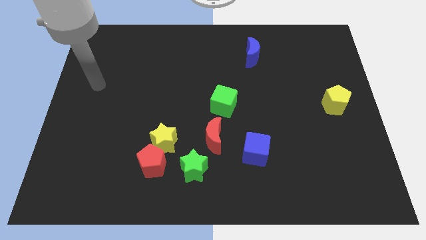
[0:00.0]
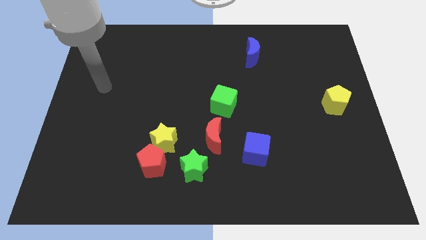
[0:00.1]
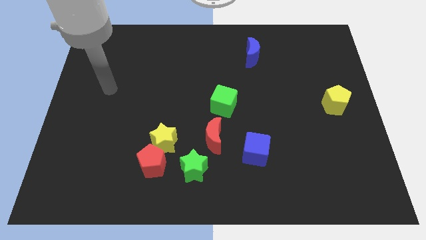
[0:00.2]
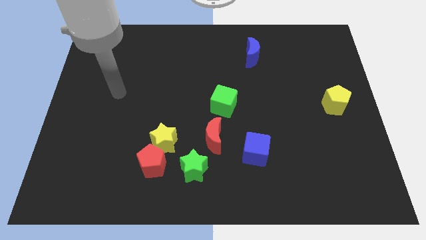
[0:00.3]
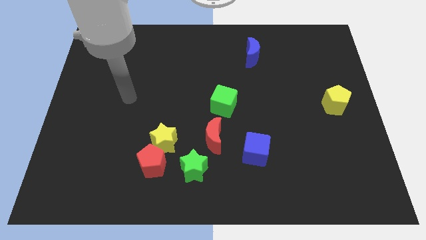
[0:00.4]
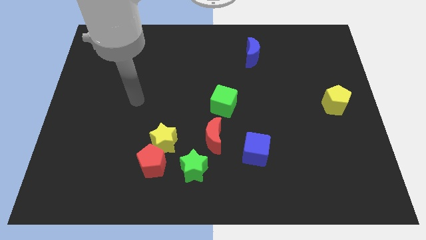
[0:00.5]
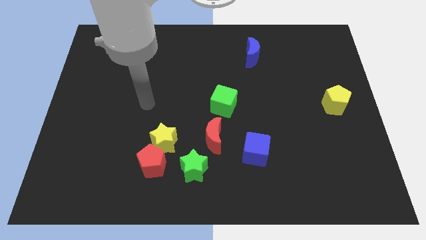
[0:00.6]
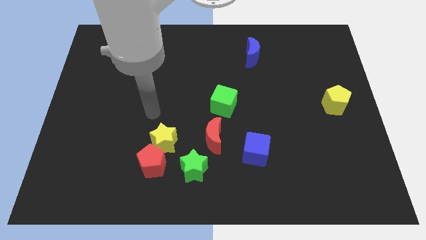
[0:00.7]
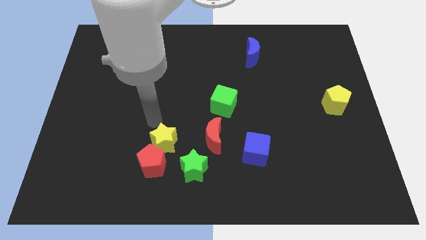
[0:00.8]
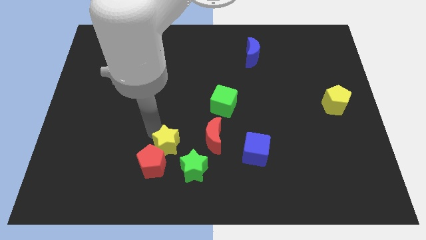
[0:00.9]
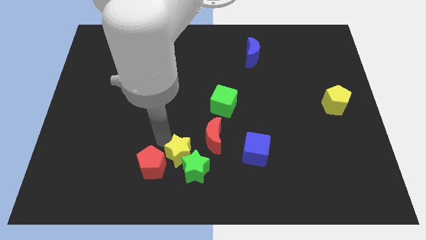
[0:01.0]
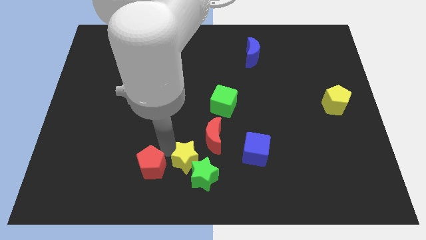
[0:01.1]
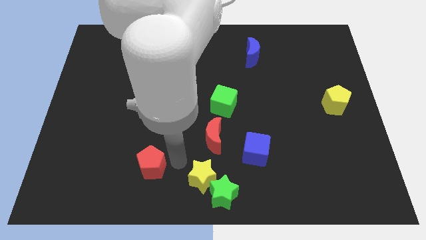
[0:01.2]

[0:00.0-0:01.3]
pull the red pentagon apart from the yellow star and green star

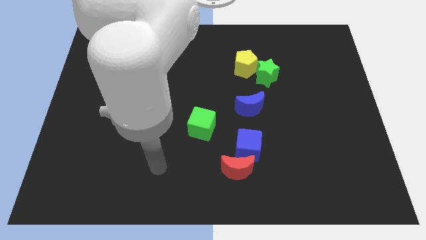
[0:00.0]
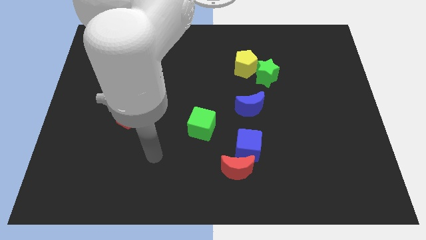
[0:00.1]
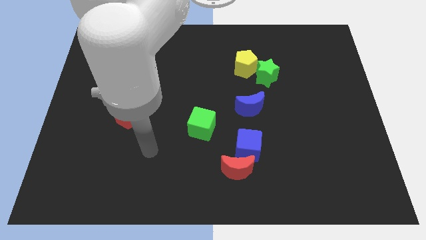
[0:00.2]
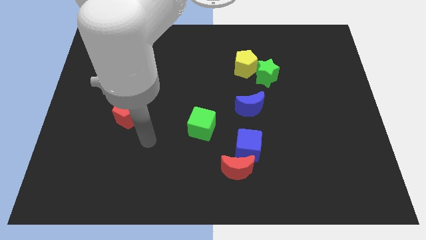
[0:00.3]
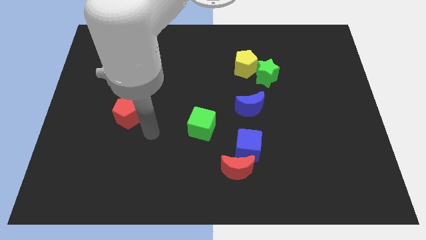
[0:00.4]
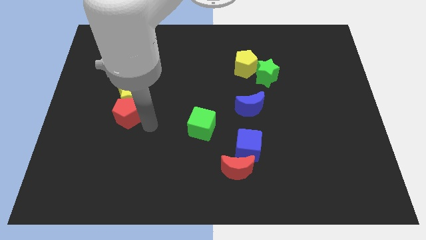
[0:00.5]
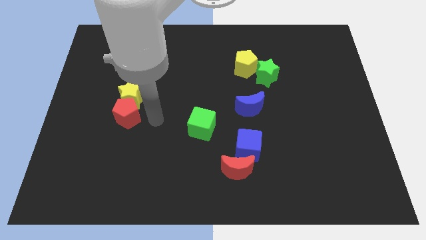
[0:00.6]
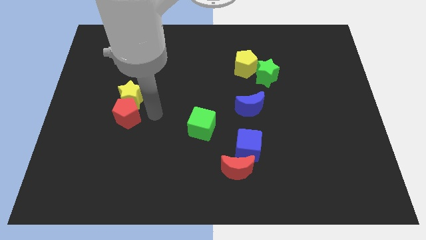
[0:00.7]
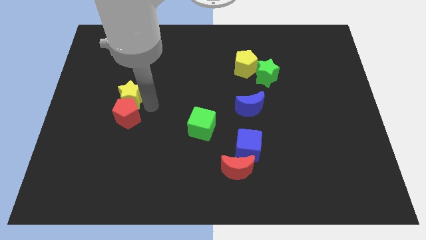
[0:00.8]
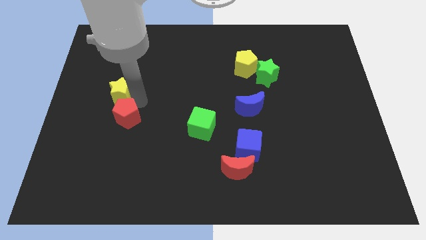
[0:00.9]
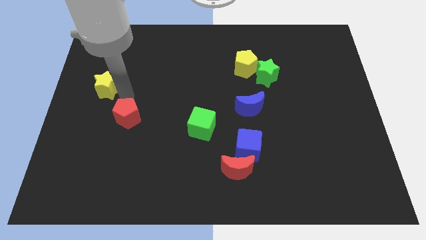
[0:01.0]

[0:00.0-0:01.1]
pull the red pentagon apart from the yellow star

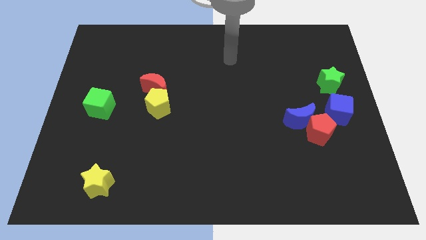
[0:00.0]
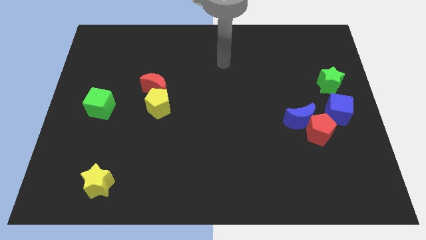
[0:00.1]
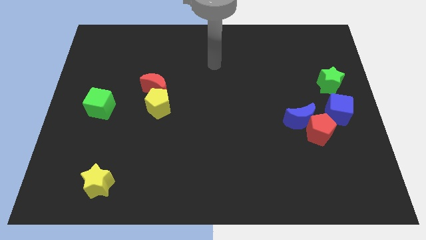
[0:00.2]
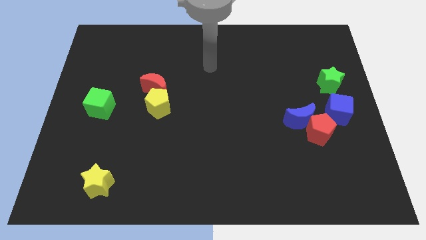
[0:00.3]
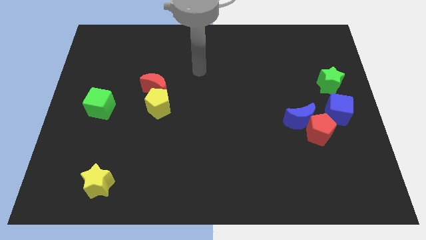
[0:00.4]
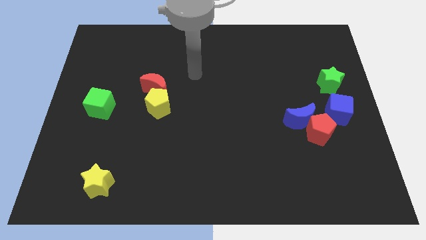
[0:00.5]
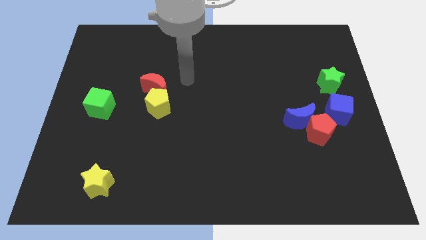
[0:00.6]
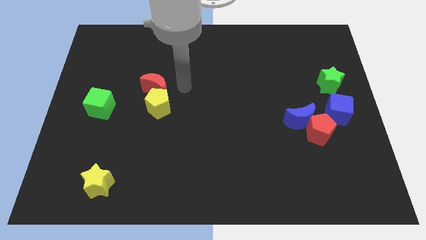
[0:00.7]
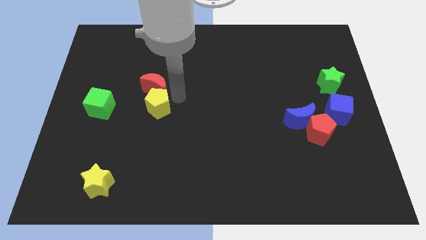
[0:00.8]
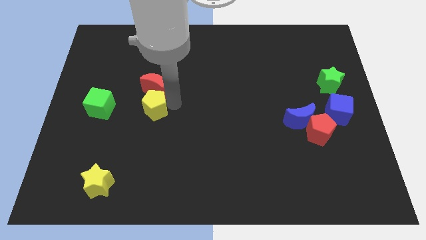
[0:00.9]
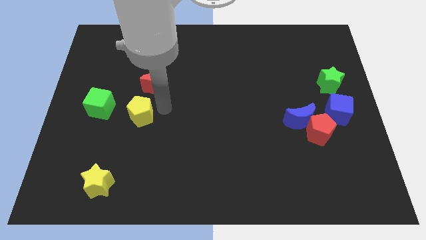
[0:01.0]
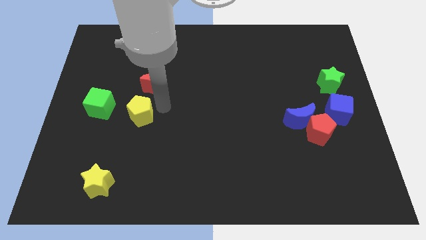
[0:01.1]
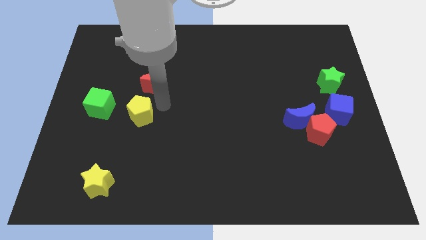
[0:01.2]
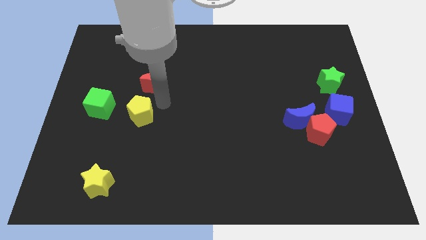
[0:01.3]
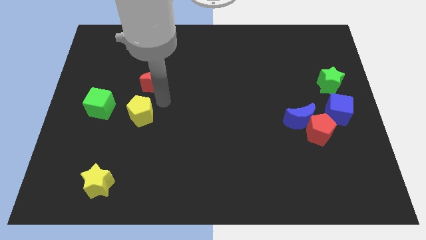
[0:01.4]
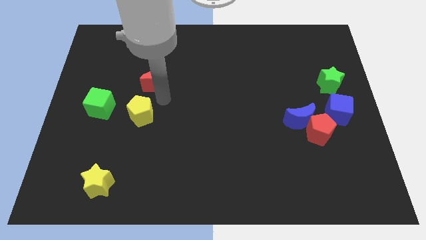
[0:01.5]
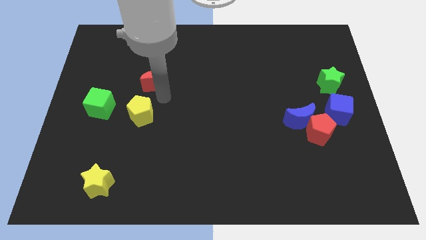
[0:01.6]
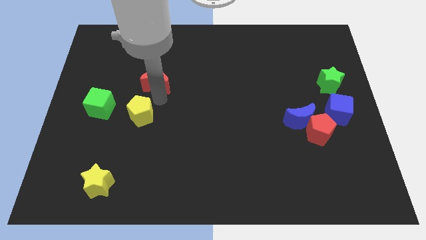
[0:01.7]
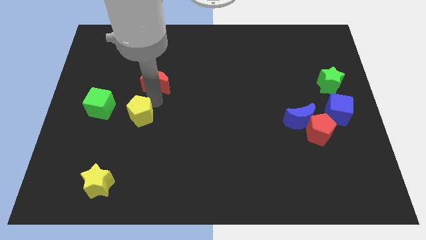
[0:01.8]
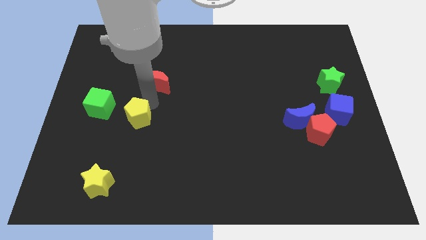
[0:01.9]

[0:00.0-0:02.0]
move the red moon away from the yellow pentagon

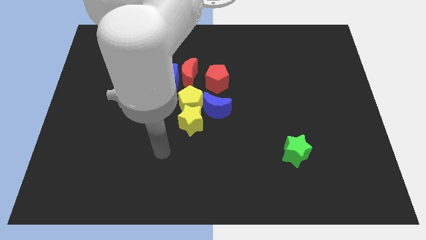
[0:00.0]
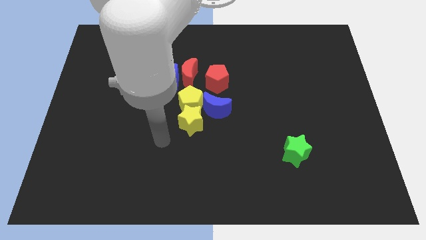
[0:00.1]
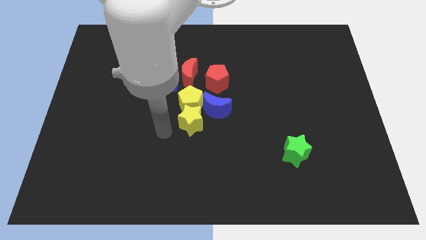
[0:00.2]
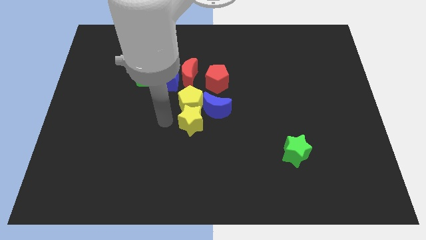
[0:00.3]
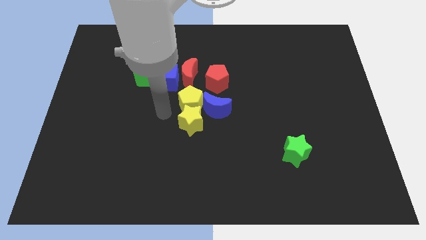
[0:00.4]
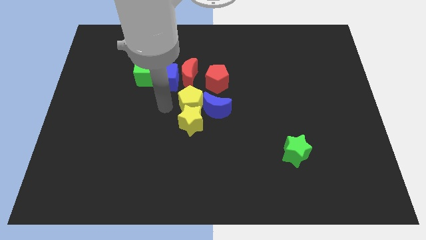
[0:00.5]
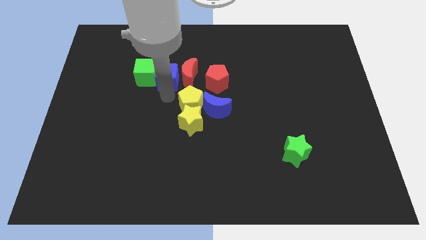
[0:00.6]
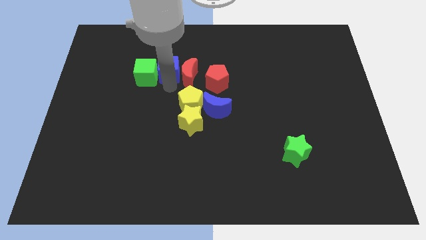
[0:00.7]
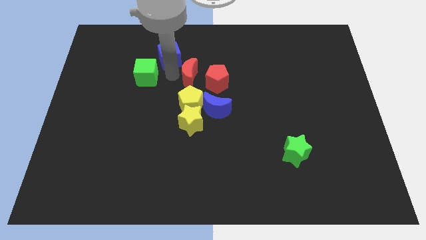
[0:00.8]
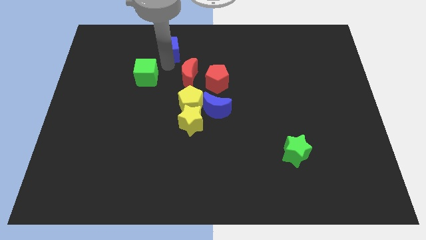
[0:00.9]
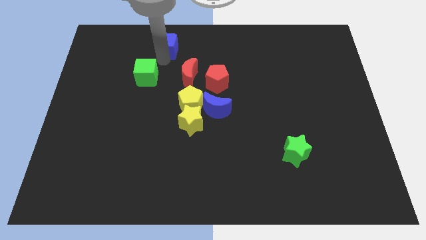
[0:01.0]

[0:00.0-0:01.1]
separate the green cube from the blue cube

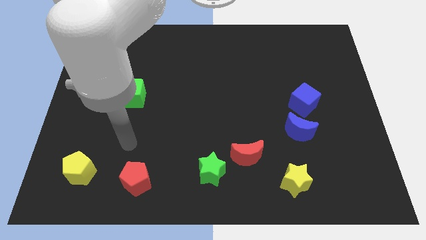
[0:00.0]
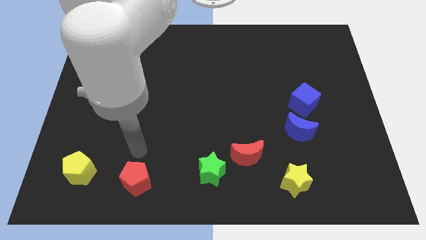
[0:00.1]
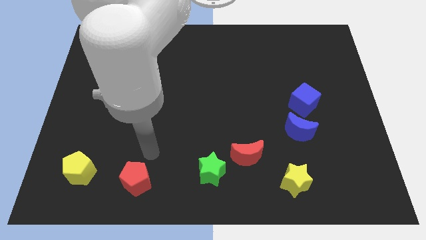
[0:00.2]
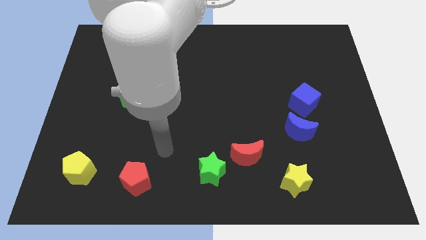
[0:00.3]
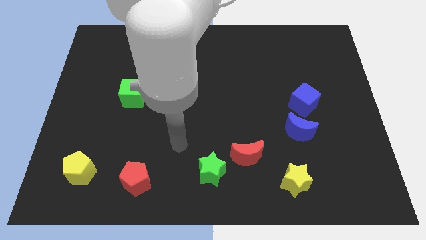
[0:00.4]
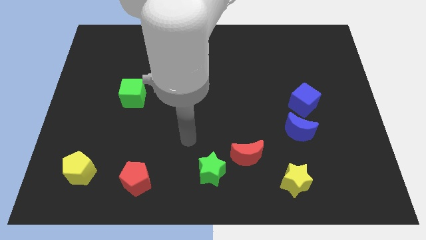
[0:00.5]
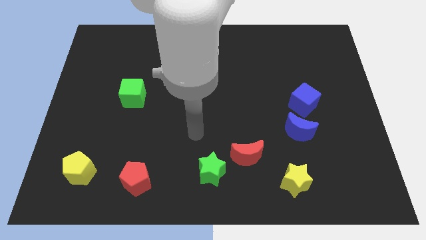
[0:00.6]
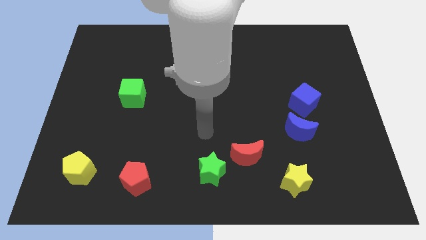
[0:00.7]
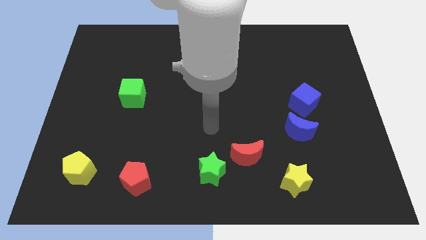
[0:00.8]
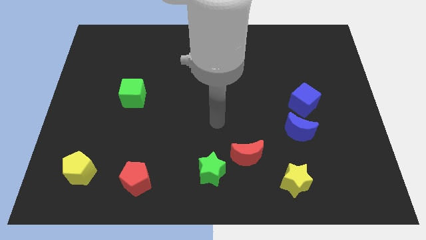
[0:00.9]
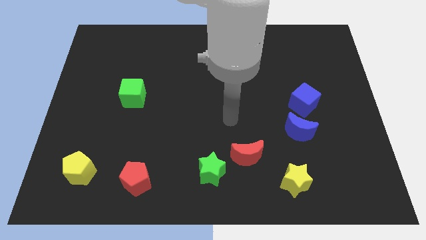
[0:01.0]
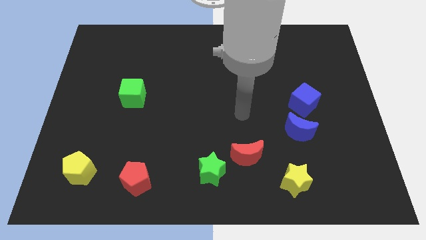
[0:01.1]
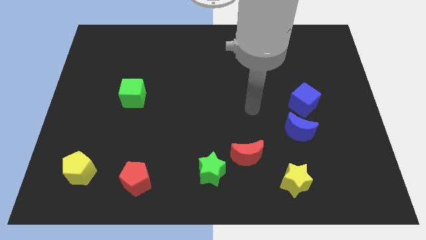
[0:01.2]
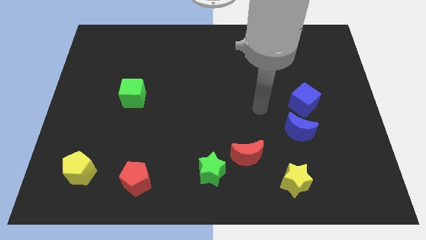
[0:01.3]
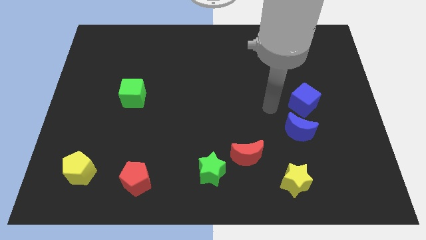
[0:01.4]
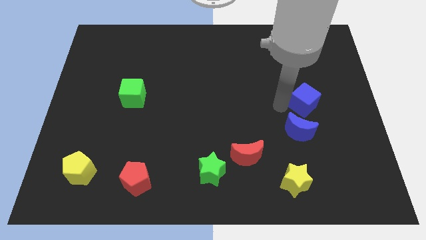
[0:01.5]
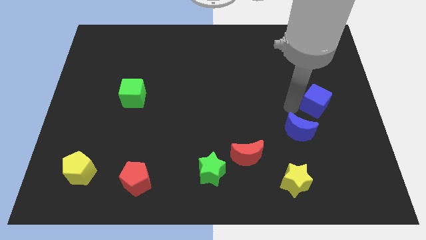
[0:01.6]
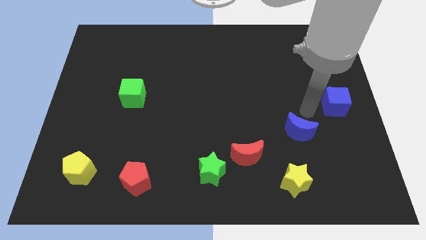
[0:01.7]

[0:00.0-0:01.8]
separate the blue moon from the blue cube

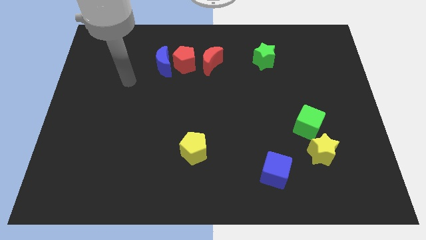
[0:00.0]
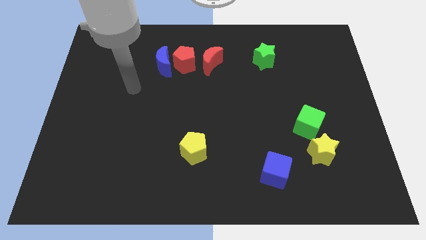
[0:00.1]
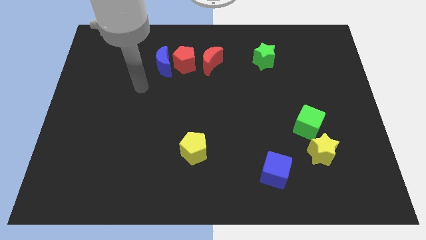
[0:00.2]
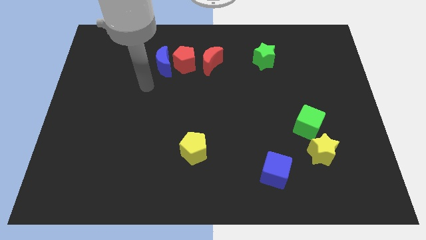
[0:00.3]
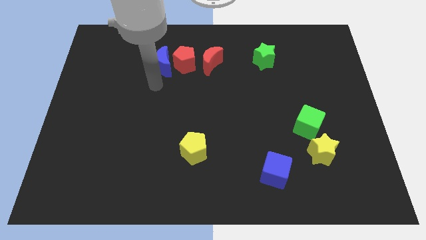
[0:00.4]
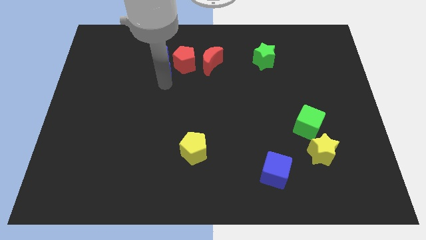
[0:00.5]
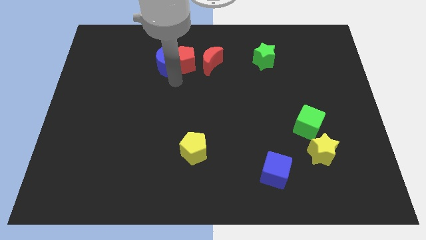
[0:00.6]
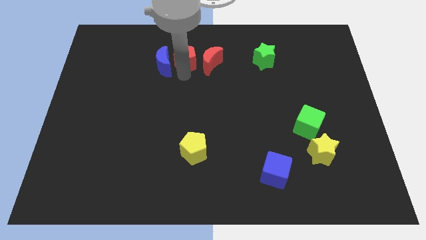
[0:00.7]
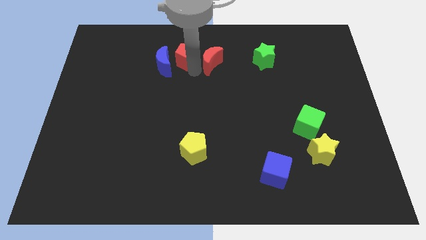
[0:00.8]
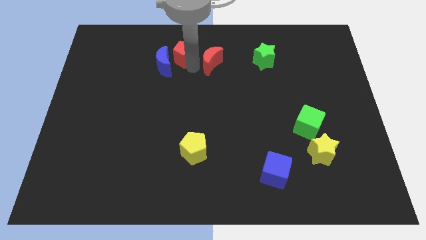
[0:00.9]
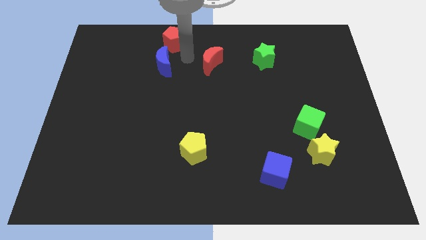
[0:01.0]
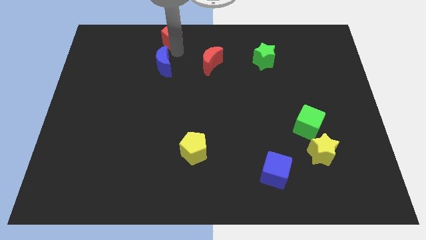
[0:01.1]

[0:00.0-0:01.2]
move the blue moon away from the red pentagon

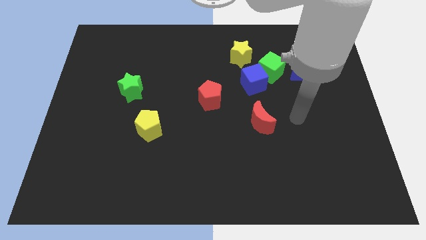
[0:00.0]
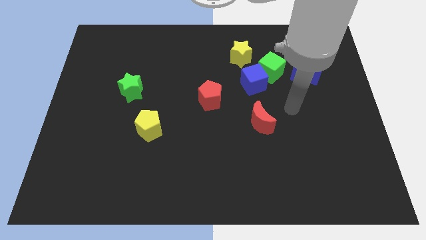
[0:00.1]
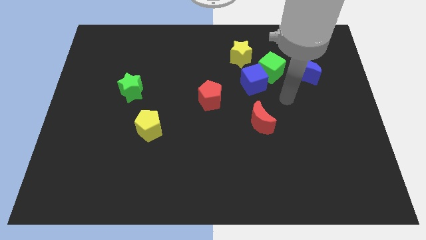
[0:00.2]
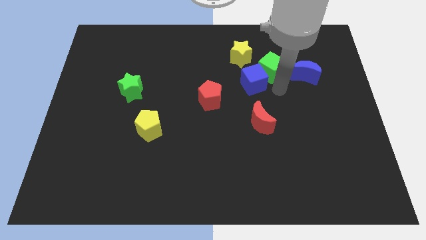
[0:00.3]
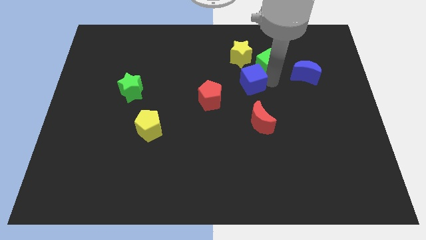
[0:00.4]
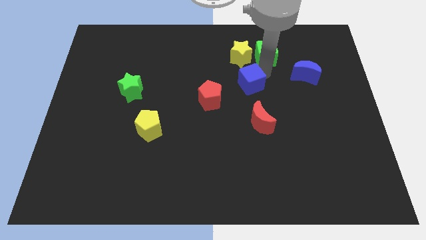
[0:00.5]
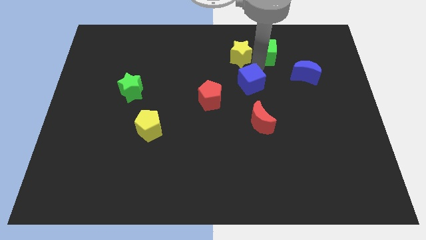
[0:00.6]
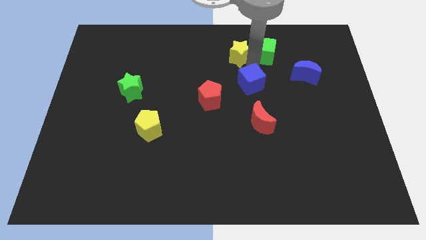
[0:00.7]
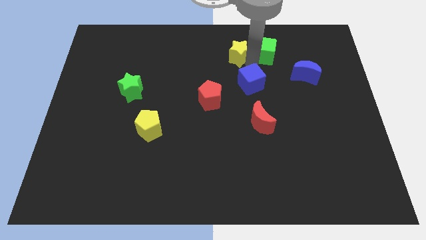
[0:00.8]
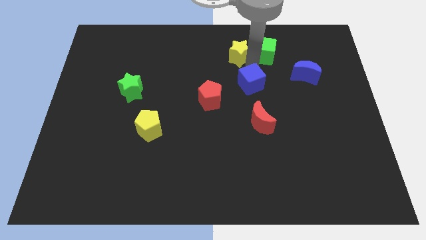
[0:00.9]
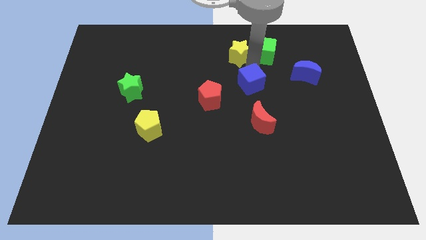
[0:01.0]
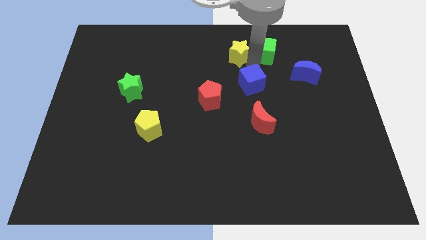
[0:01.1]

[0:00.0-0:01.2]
move the blue cube away from the green cube and yellow star
